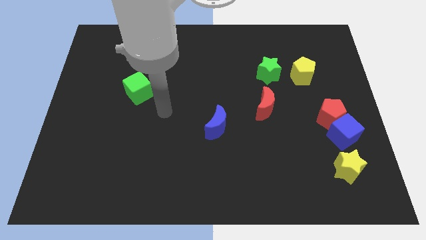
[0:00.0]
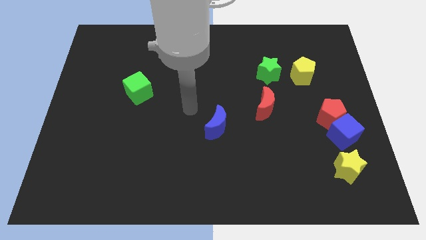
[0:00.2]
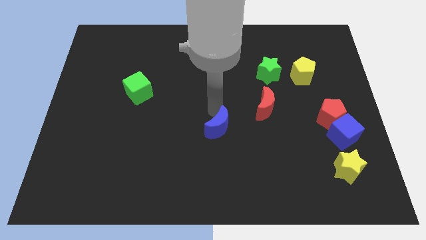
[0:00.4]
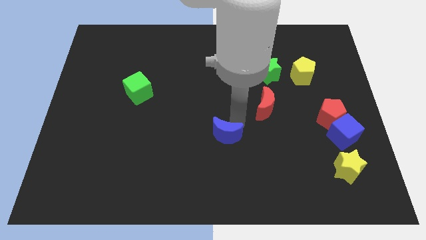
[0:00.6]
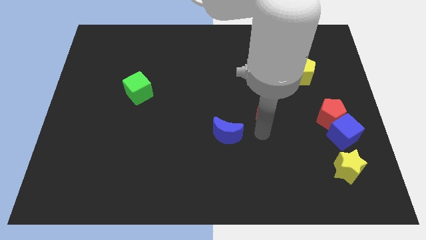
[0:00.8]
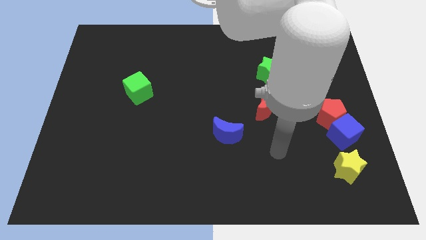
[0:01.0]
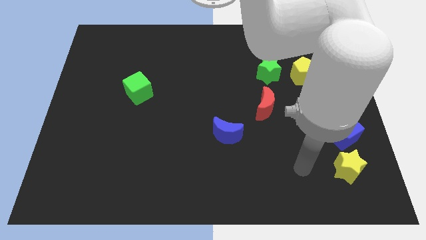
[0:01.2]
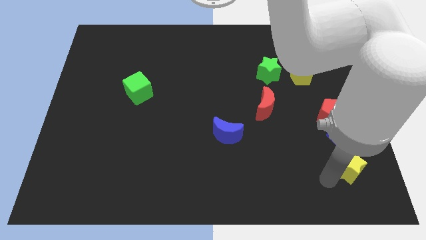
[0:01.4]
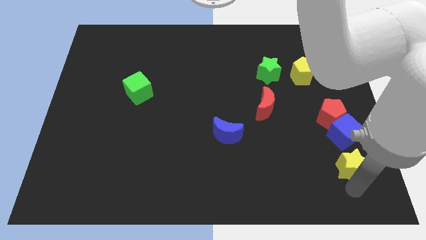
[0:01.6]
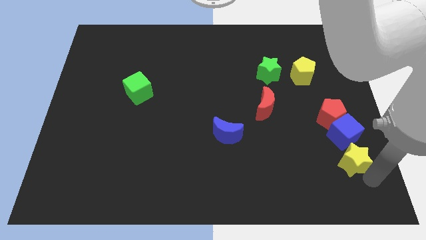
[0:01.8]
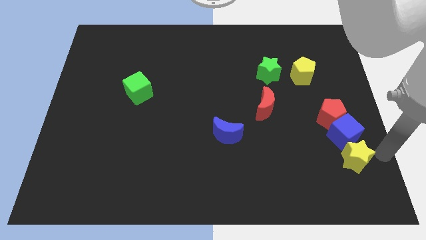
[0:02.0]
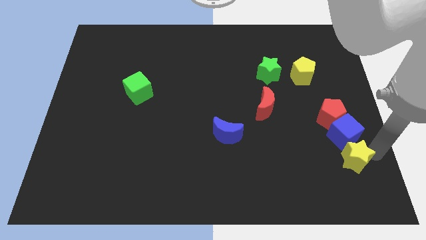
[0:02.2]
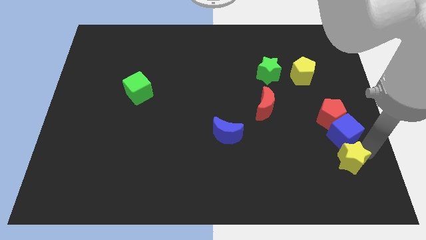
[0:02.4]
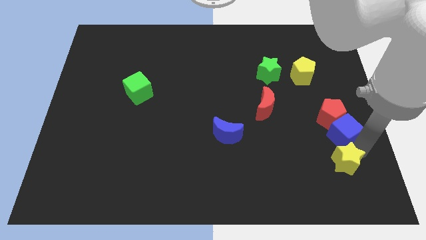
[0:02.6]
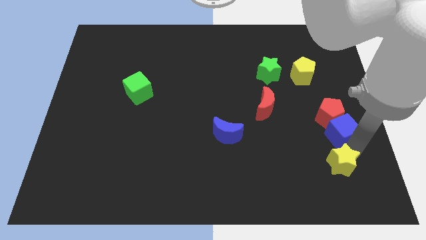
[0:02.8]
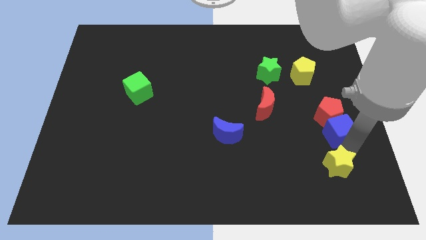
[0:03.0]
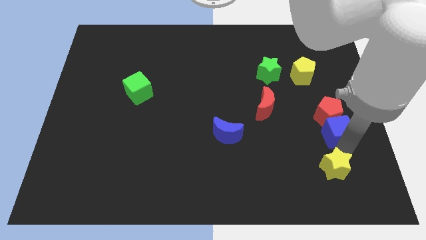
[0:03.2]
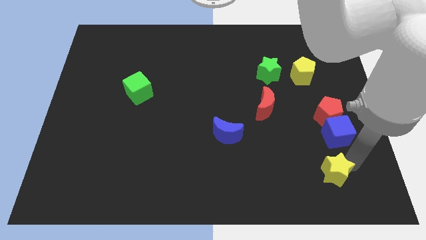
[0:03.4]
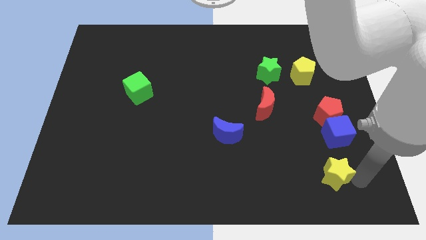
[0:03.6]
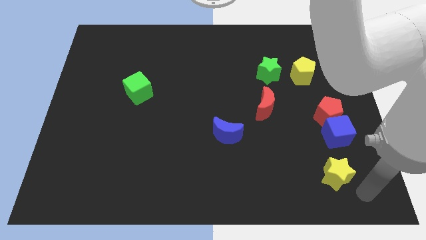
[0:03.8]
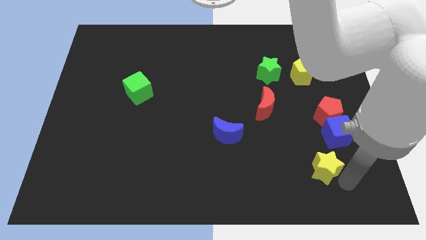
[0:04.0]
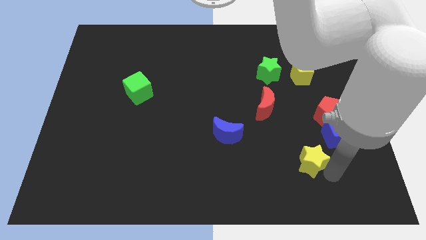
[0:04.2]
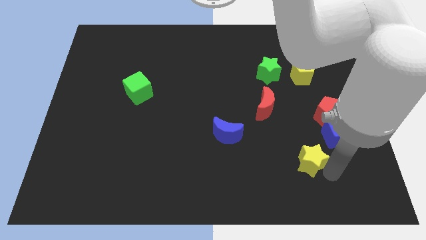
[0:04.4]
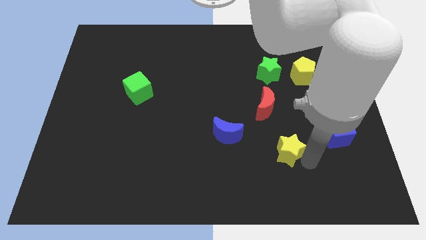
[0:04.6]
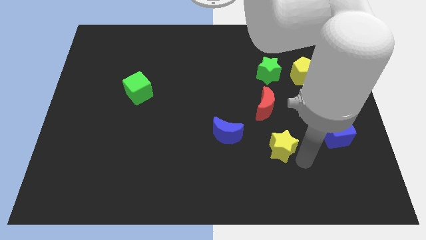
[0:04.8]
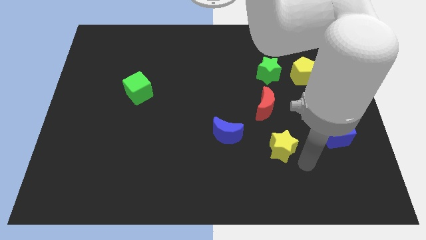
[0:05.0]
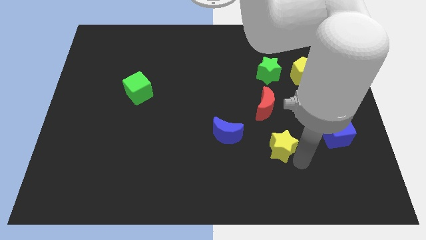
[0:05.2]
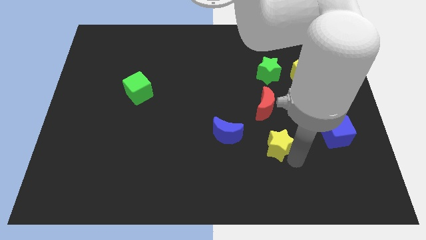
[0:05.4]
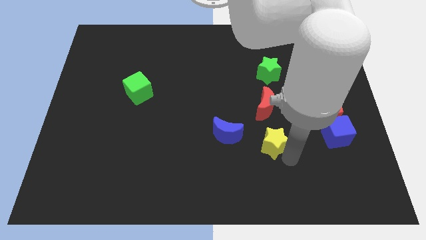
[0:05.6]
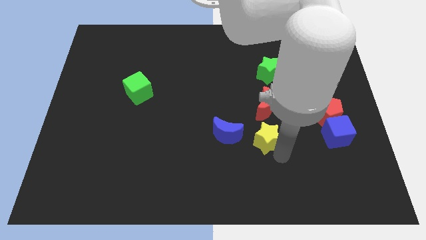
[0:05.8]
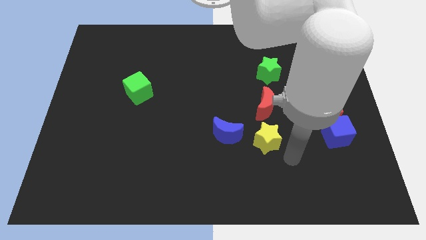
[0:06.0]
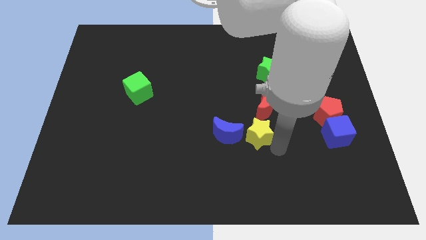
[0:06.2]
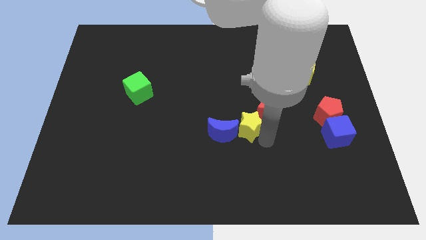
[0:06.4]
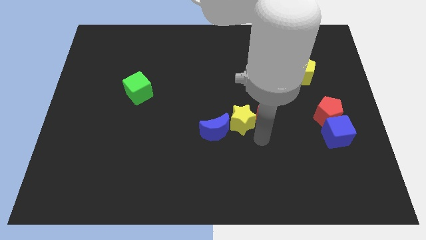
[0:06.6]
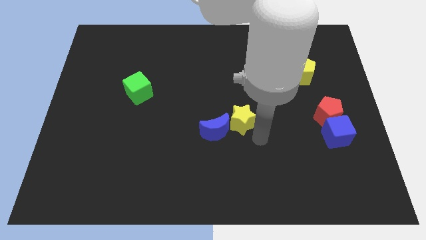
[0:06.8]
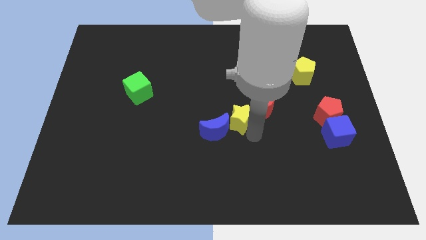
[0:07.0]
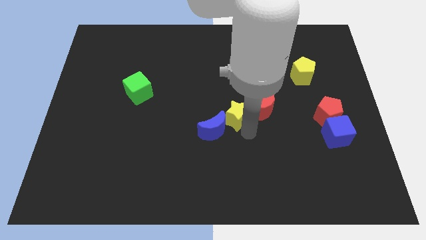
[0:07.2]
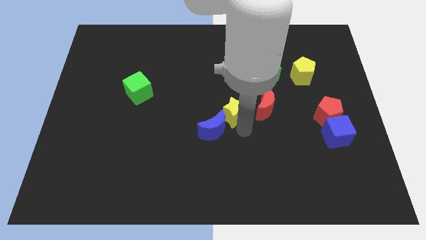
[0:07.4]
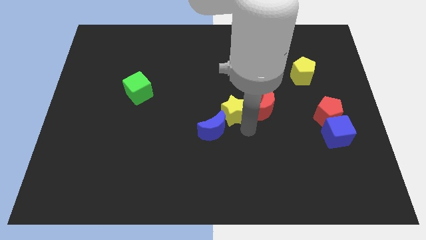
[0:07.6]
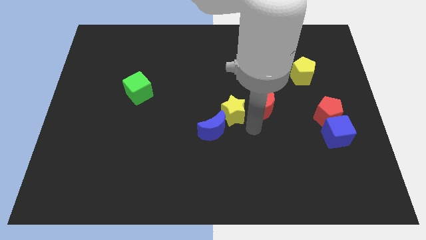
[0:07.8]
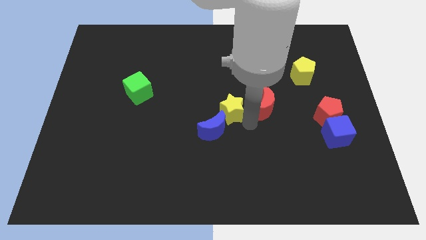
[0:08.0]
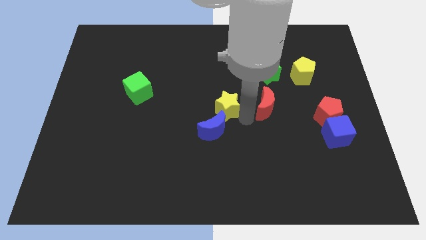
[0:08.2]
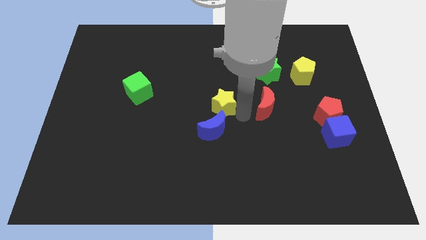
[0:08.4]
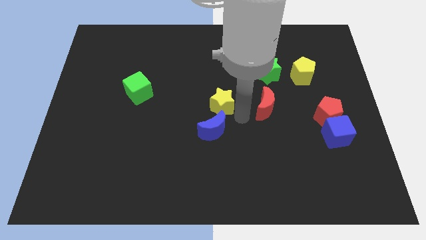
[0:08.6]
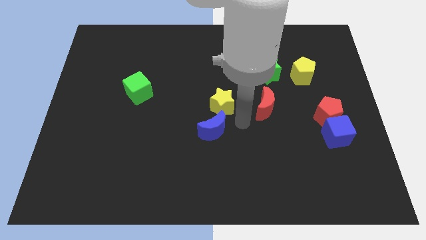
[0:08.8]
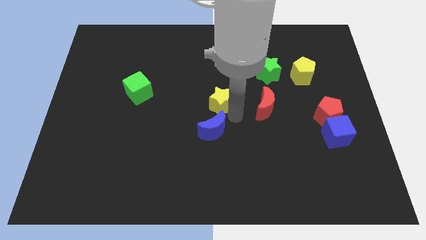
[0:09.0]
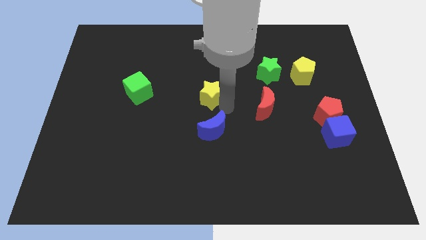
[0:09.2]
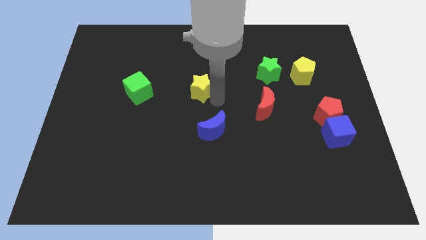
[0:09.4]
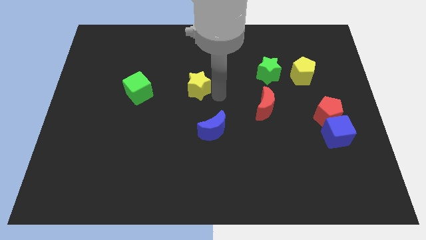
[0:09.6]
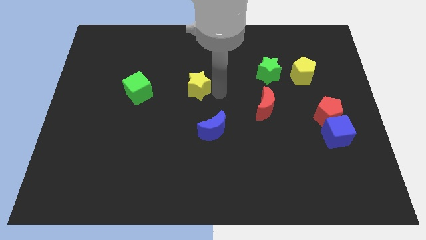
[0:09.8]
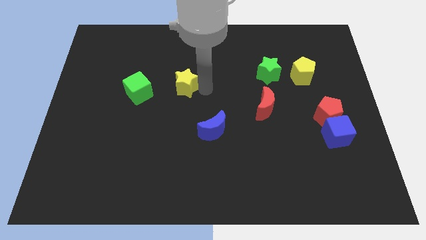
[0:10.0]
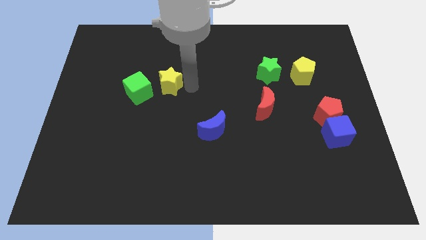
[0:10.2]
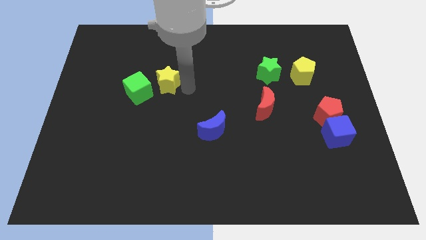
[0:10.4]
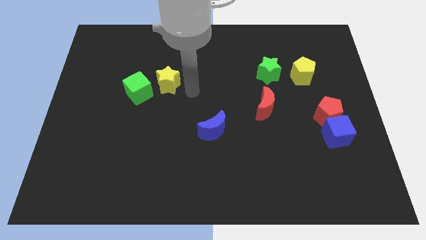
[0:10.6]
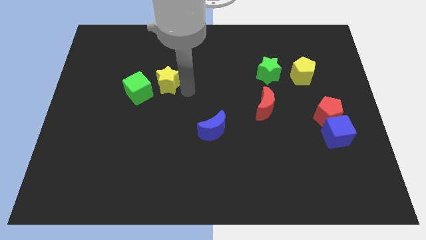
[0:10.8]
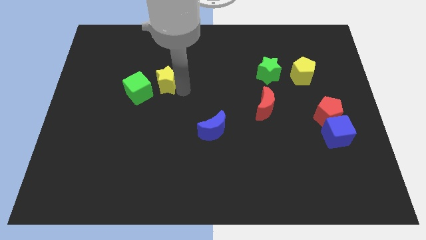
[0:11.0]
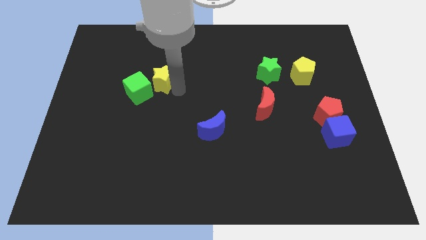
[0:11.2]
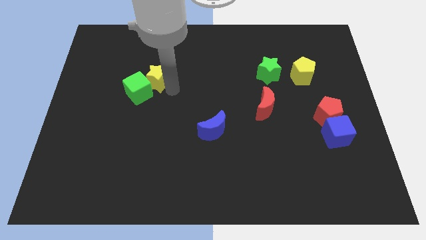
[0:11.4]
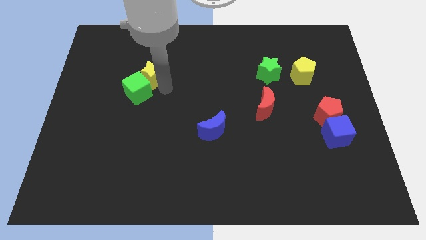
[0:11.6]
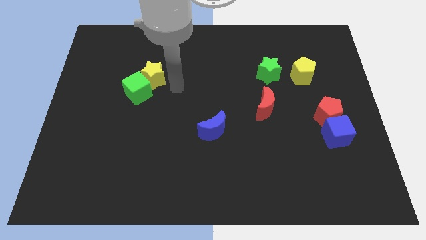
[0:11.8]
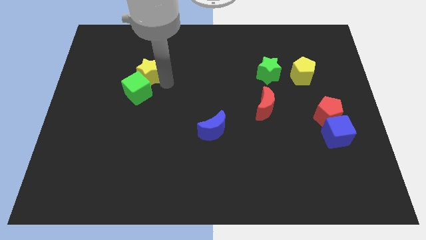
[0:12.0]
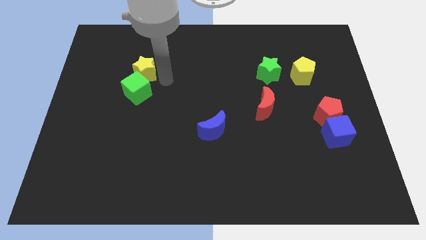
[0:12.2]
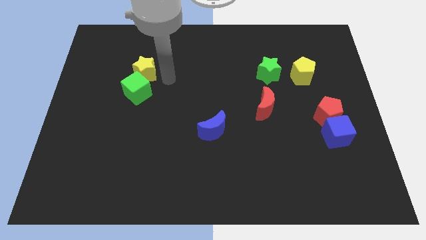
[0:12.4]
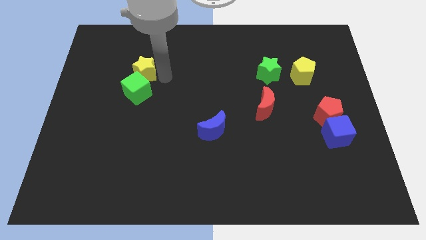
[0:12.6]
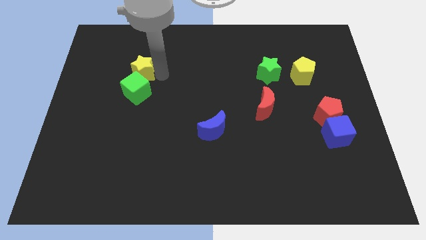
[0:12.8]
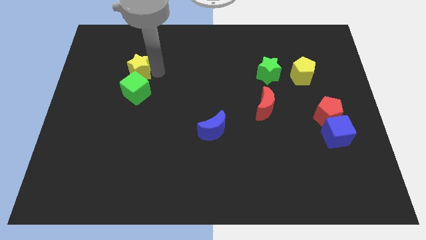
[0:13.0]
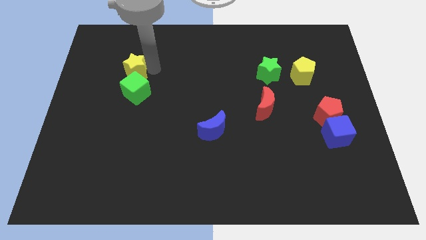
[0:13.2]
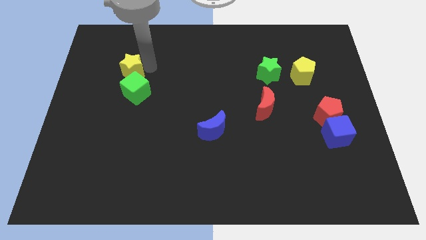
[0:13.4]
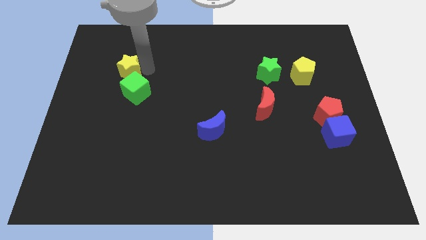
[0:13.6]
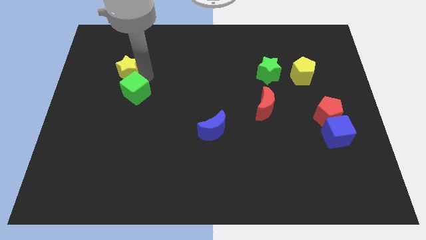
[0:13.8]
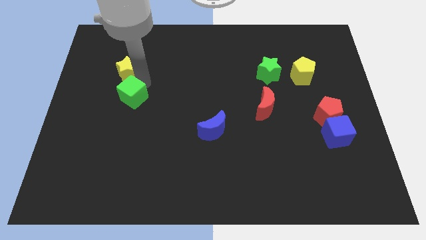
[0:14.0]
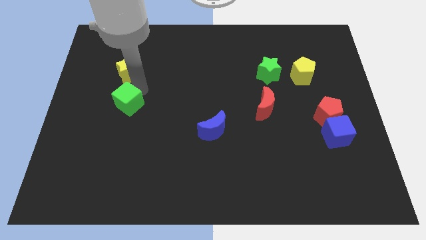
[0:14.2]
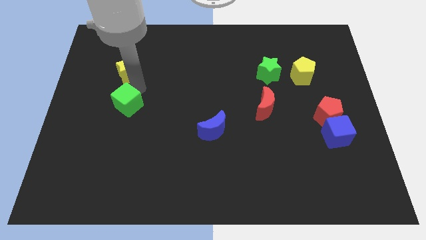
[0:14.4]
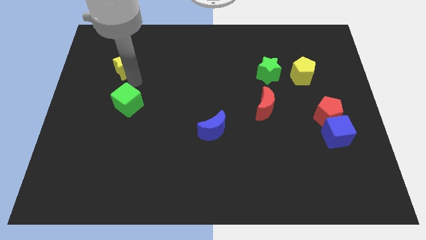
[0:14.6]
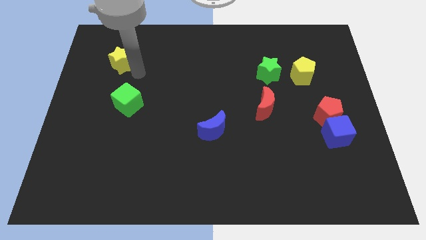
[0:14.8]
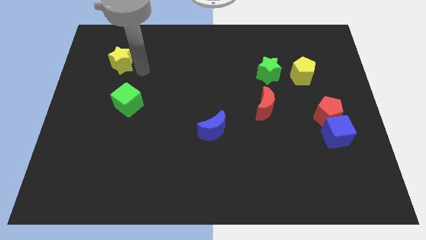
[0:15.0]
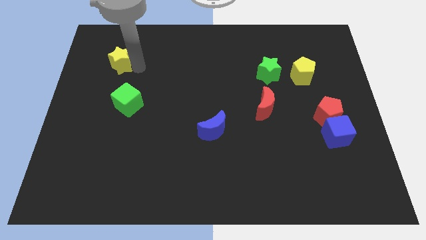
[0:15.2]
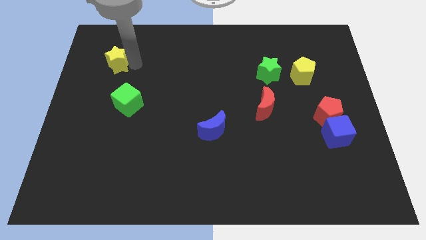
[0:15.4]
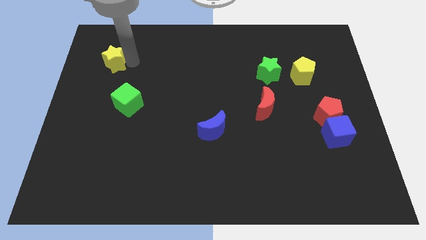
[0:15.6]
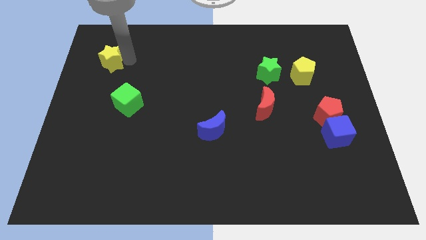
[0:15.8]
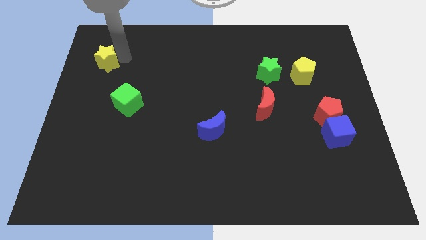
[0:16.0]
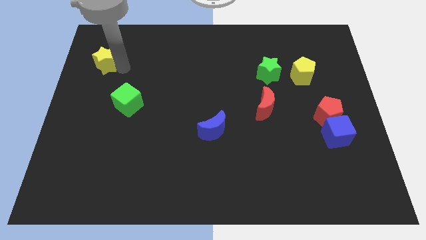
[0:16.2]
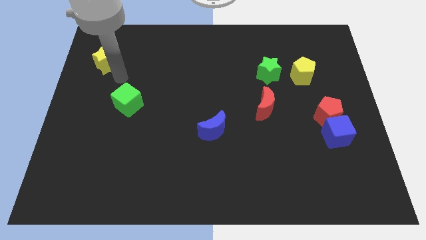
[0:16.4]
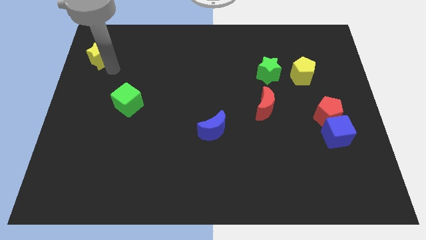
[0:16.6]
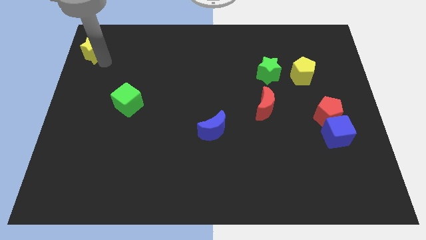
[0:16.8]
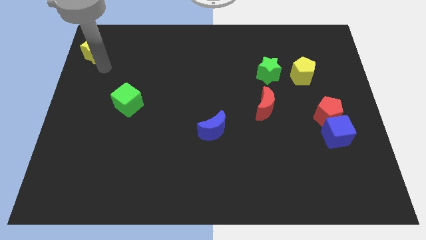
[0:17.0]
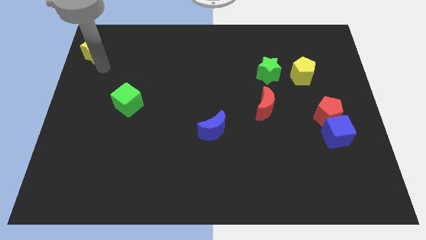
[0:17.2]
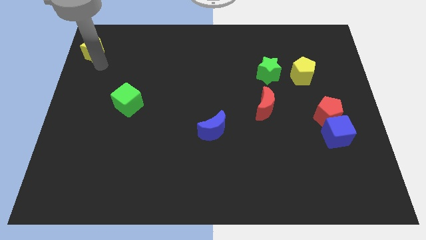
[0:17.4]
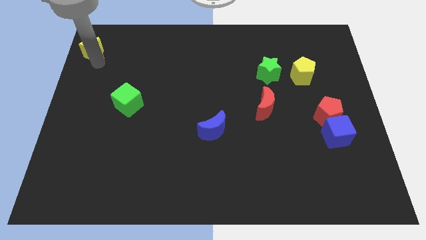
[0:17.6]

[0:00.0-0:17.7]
move the yellow star to the top left of the board
